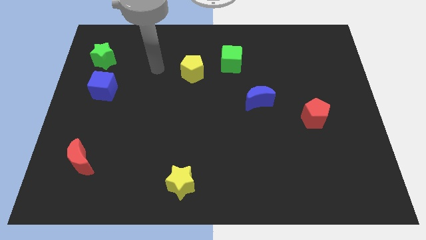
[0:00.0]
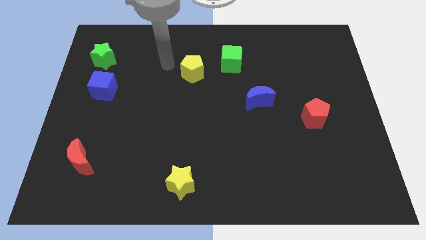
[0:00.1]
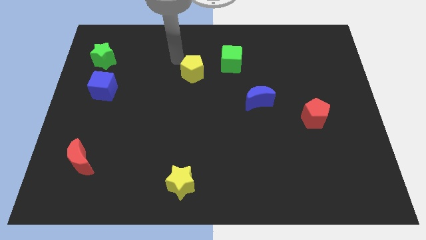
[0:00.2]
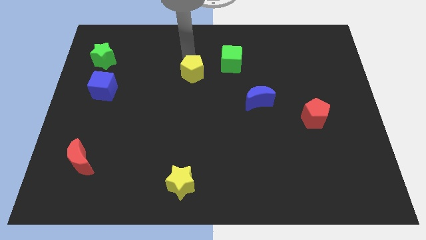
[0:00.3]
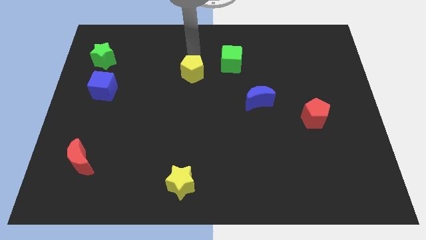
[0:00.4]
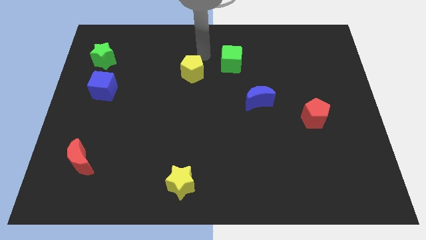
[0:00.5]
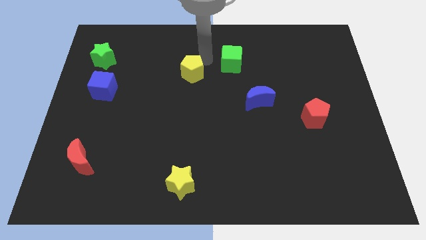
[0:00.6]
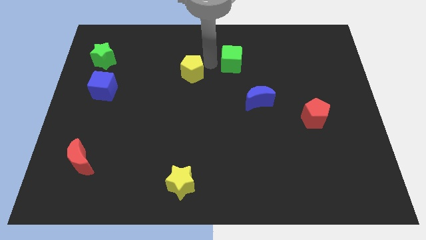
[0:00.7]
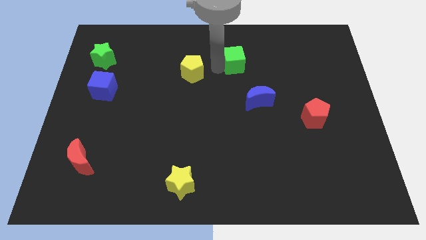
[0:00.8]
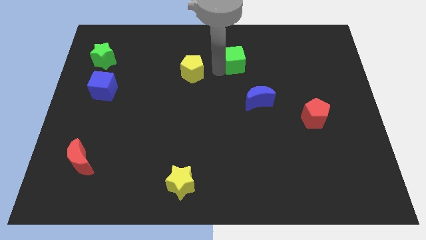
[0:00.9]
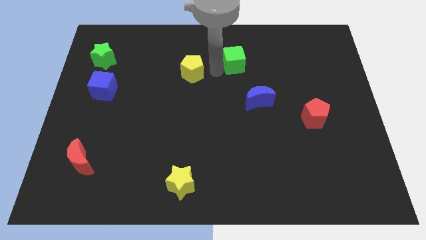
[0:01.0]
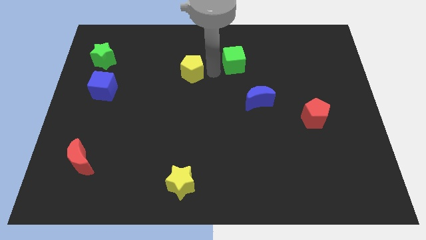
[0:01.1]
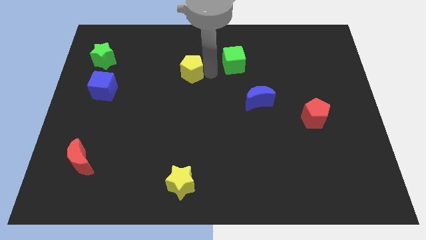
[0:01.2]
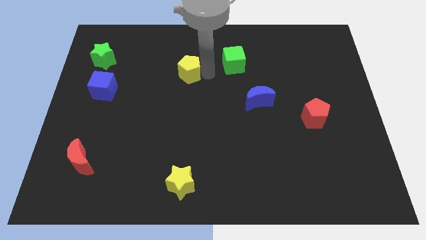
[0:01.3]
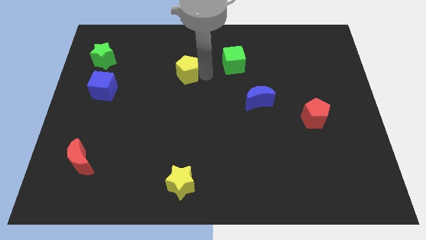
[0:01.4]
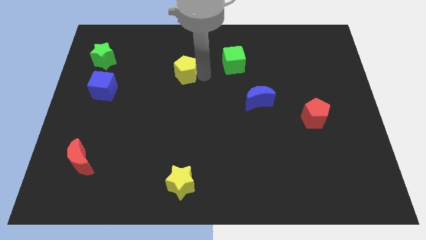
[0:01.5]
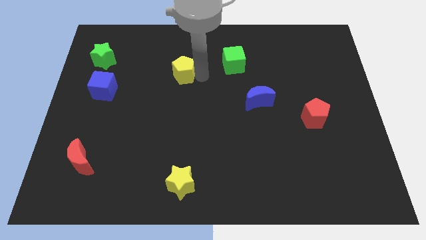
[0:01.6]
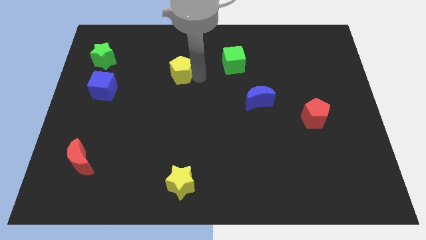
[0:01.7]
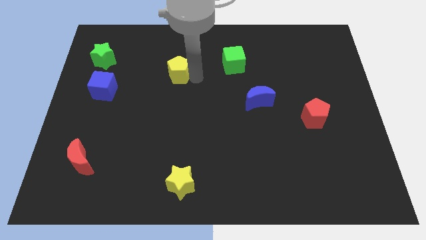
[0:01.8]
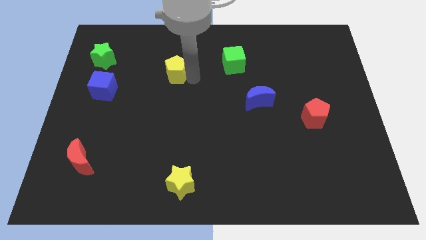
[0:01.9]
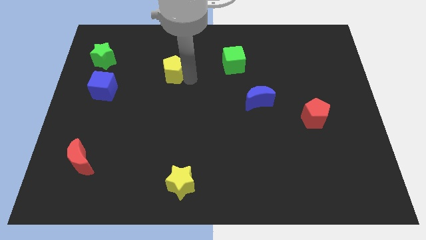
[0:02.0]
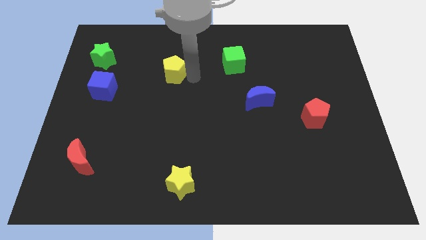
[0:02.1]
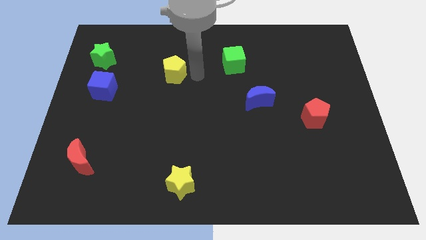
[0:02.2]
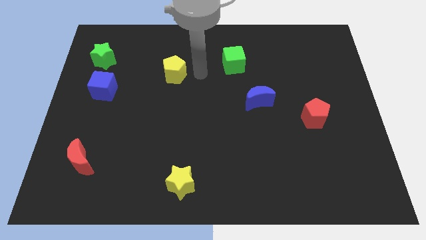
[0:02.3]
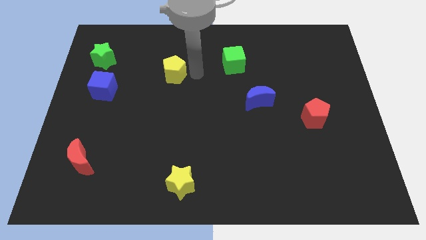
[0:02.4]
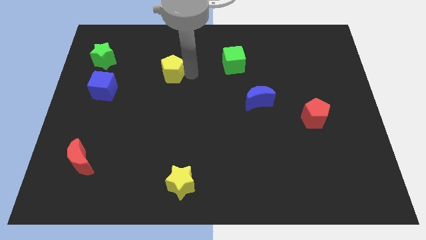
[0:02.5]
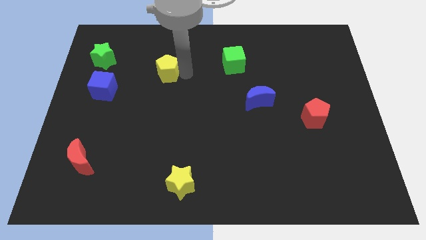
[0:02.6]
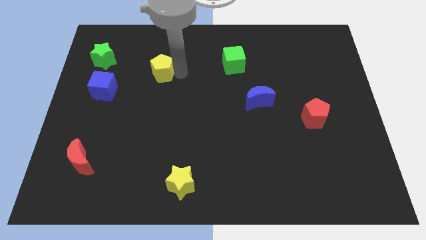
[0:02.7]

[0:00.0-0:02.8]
slightly move the yellow pentagon left

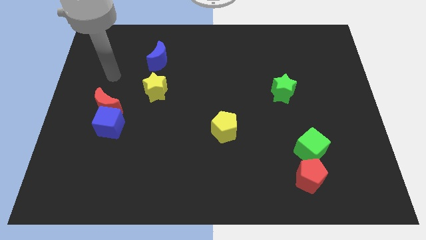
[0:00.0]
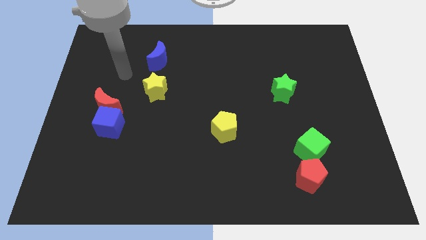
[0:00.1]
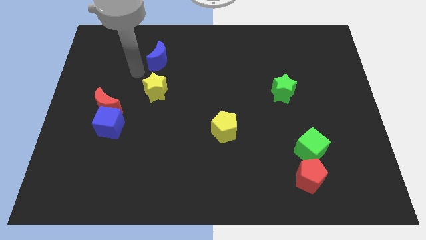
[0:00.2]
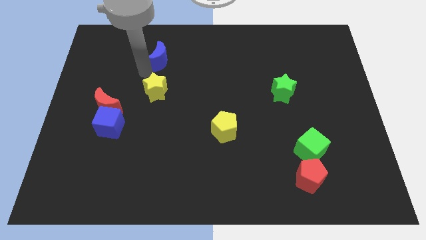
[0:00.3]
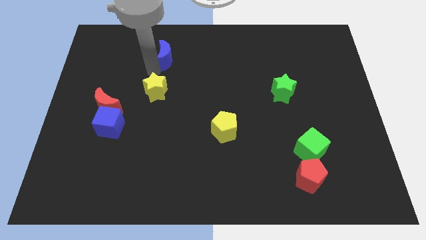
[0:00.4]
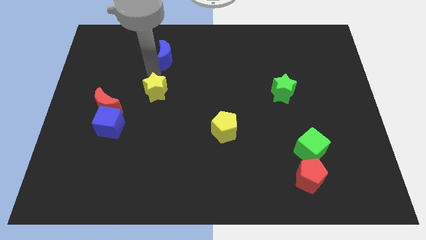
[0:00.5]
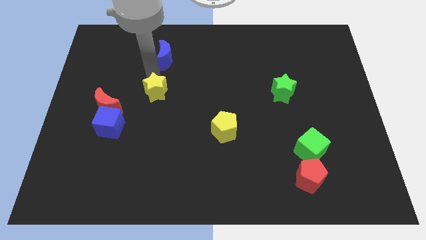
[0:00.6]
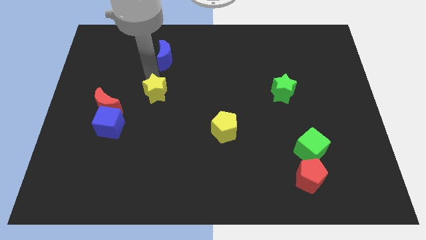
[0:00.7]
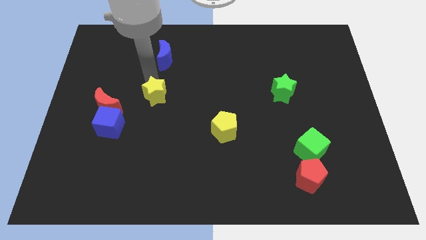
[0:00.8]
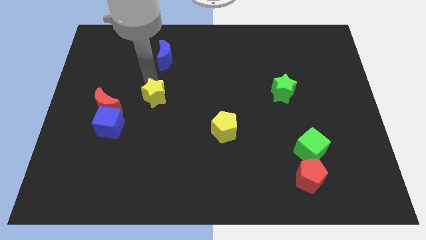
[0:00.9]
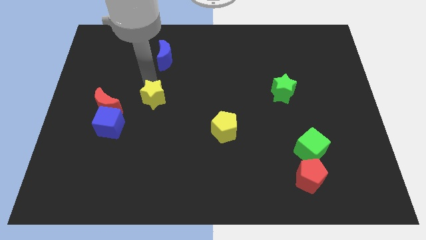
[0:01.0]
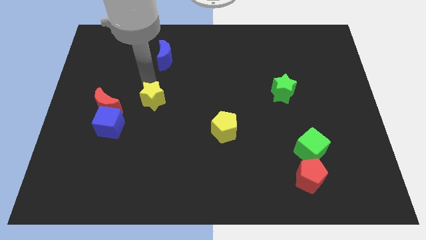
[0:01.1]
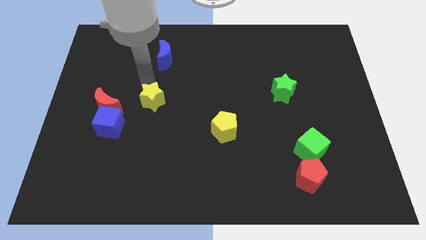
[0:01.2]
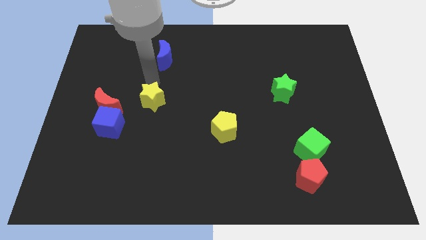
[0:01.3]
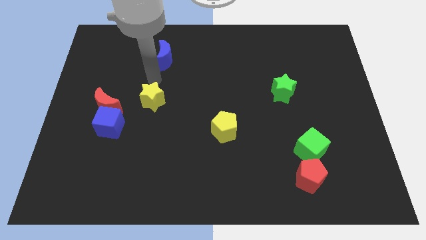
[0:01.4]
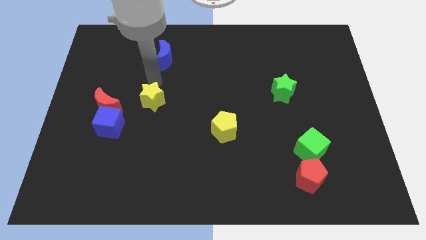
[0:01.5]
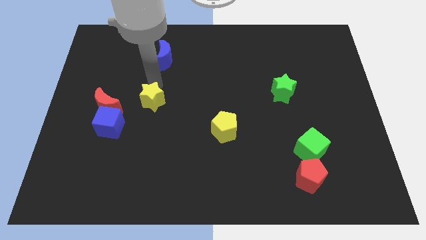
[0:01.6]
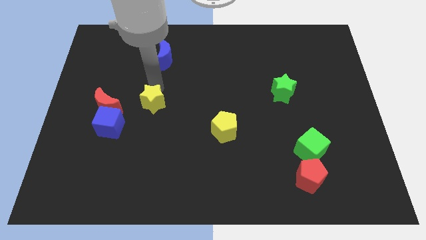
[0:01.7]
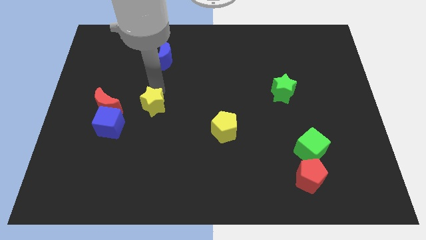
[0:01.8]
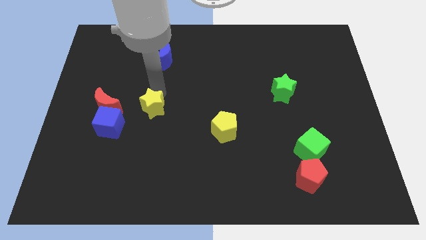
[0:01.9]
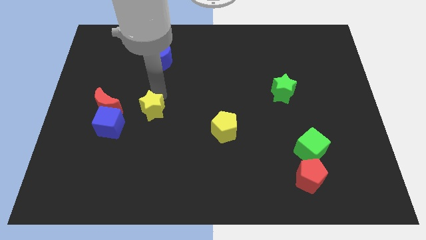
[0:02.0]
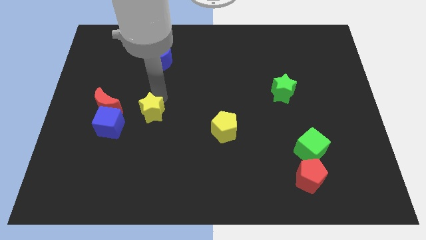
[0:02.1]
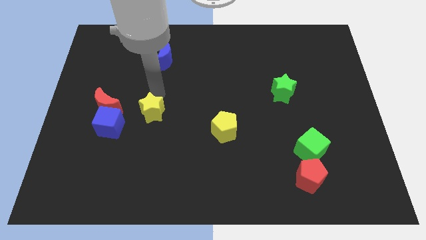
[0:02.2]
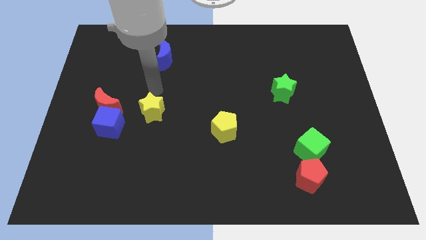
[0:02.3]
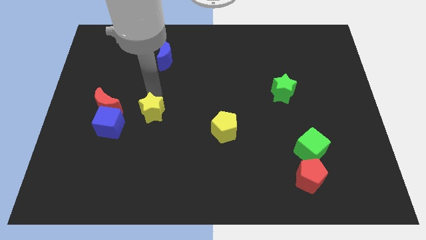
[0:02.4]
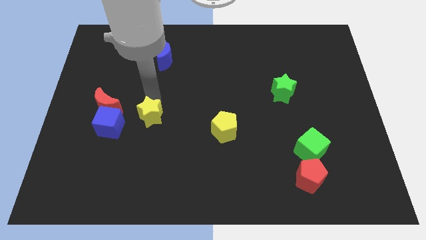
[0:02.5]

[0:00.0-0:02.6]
slide the yellow star a little bit down

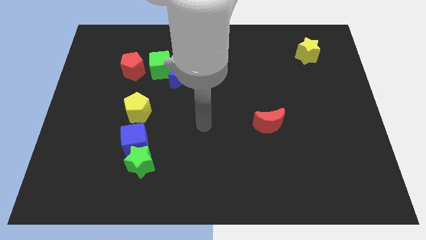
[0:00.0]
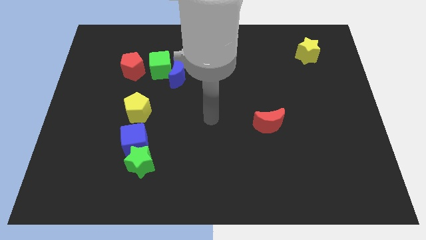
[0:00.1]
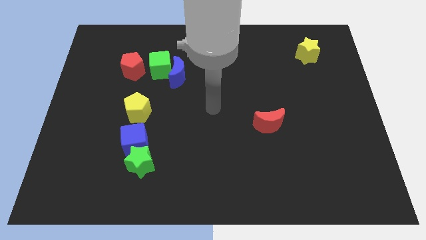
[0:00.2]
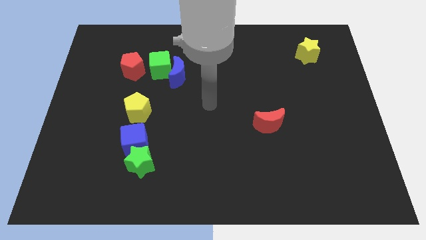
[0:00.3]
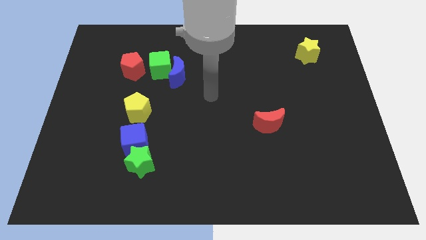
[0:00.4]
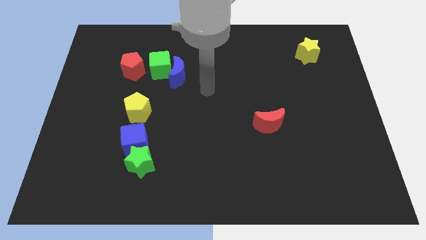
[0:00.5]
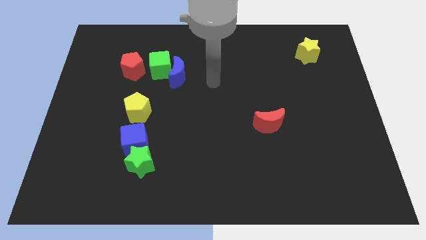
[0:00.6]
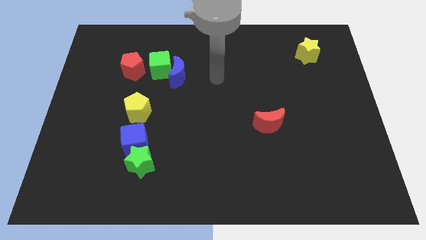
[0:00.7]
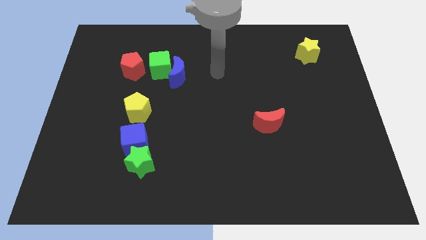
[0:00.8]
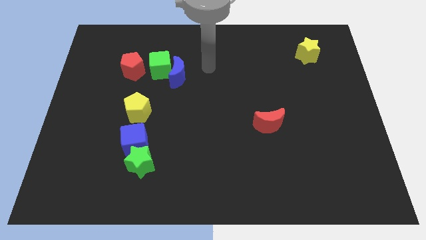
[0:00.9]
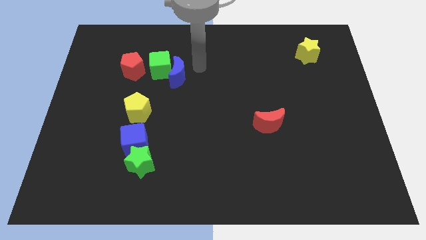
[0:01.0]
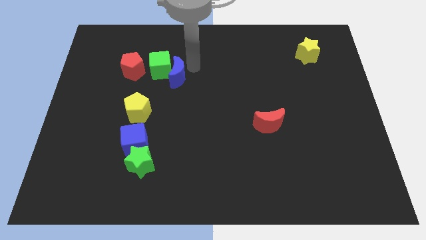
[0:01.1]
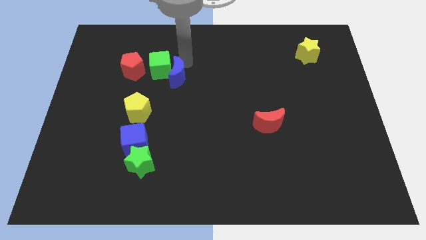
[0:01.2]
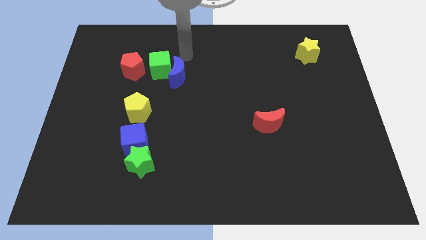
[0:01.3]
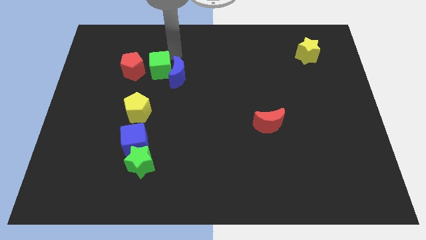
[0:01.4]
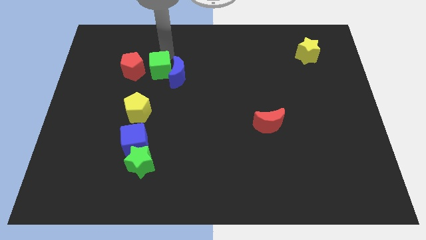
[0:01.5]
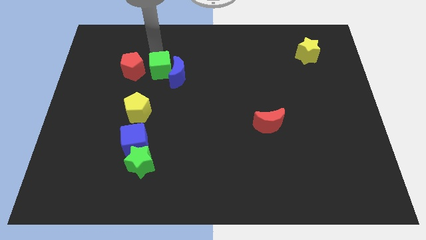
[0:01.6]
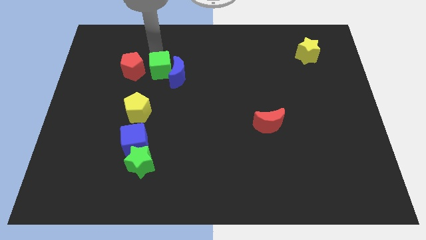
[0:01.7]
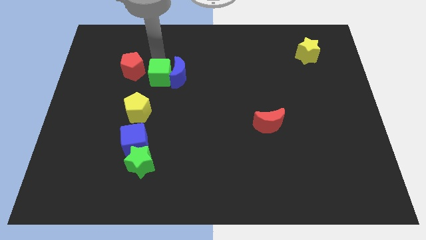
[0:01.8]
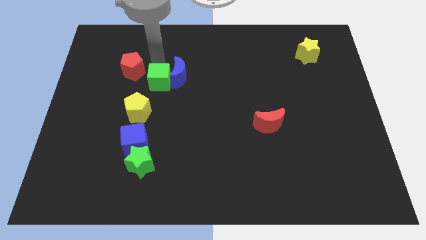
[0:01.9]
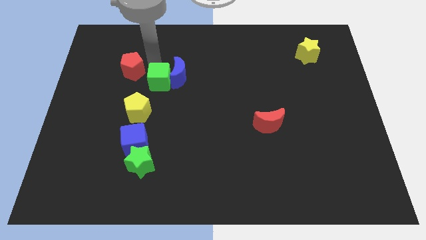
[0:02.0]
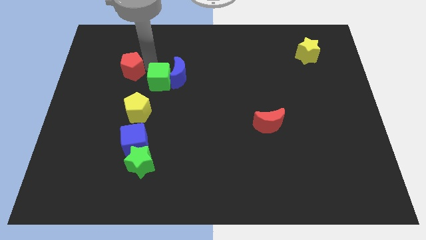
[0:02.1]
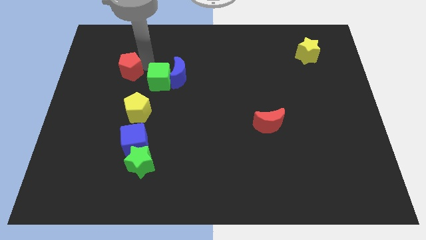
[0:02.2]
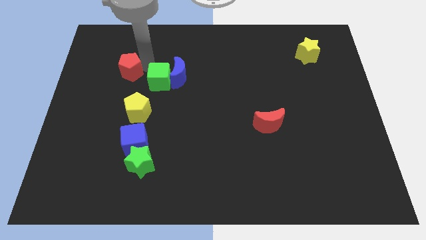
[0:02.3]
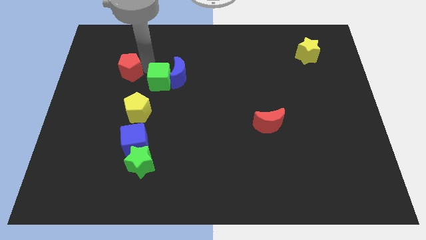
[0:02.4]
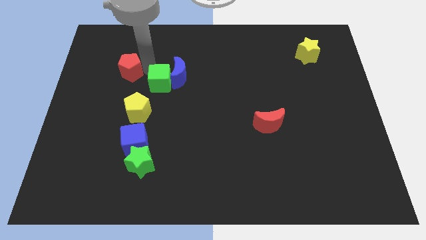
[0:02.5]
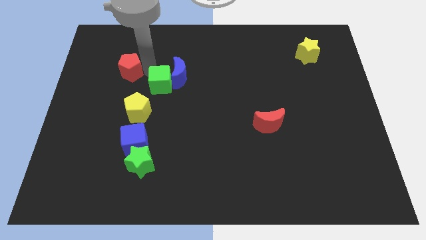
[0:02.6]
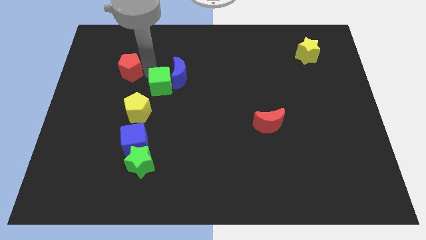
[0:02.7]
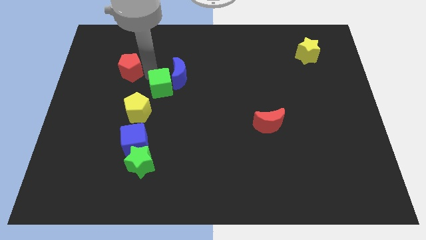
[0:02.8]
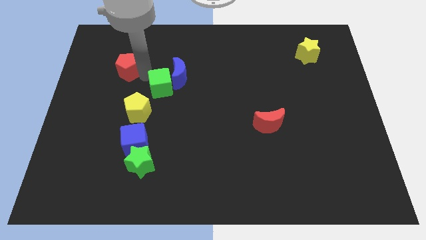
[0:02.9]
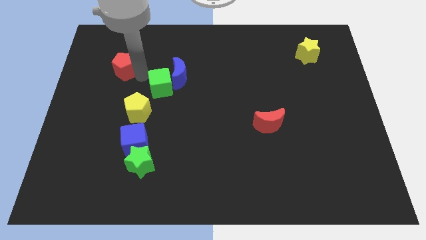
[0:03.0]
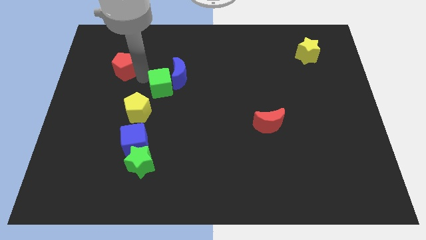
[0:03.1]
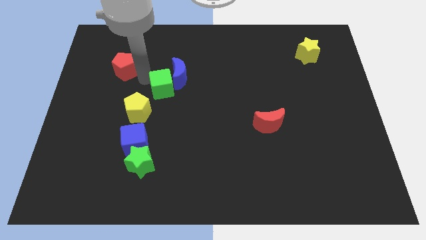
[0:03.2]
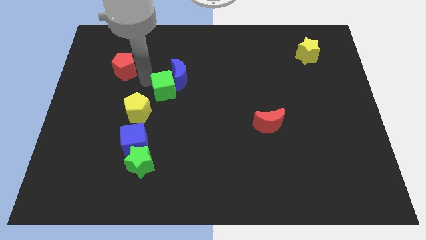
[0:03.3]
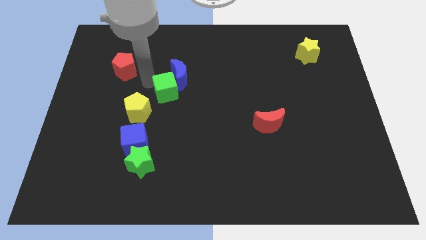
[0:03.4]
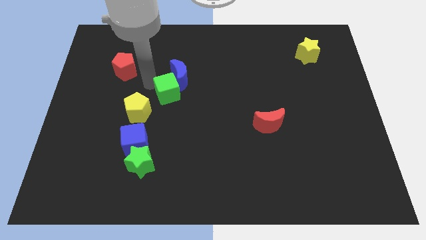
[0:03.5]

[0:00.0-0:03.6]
move the green cube somewhat diagonally downwards and to the right
